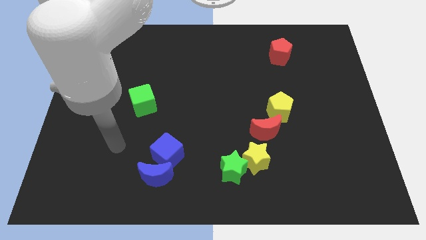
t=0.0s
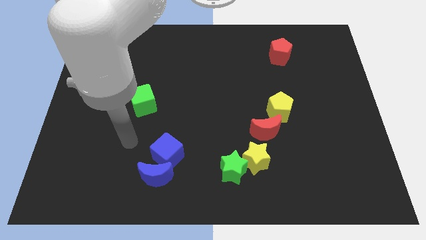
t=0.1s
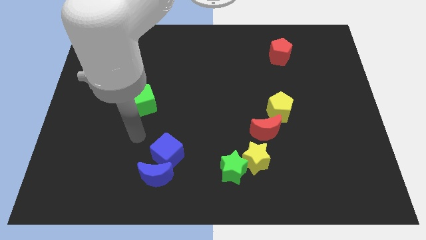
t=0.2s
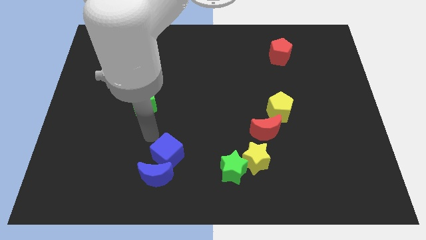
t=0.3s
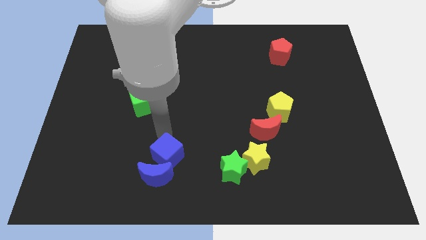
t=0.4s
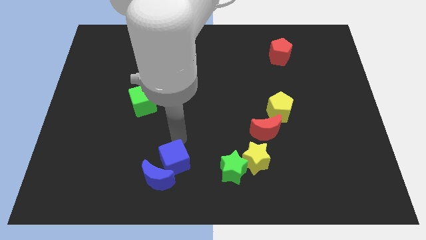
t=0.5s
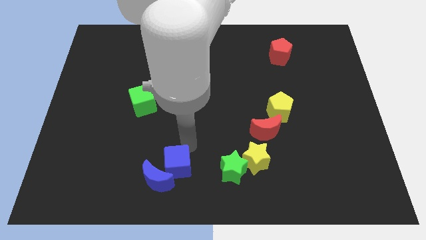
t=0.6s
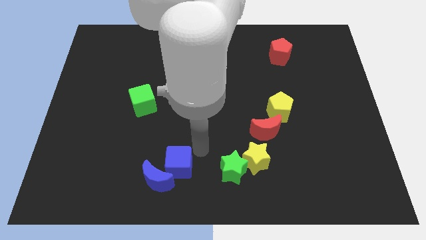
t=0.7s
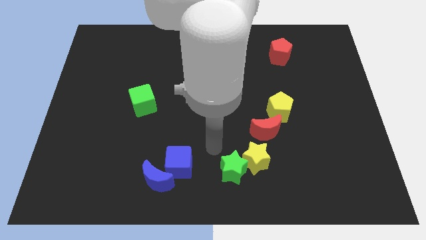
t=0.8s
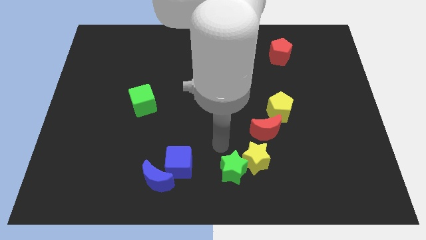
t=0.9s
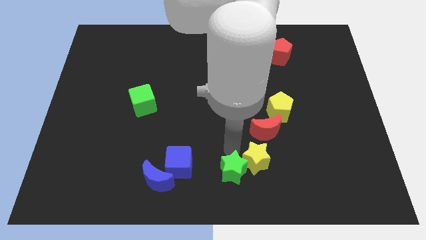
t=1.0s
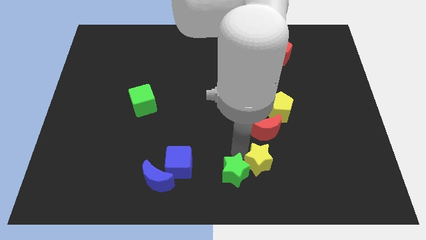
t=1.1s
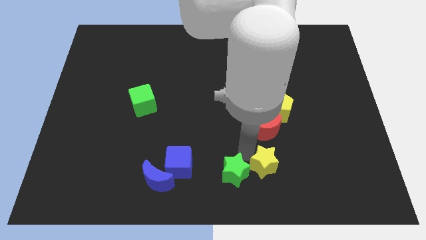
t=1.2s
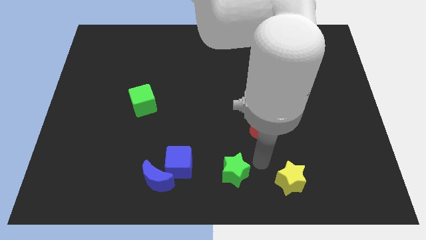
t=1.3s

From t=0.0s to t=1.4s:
separate the green star from the yellow star

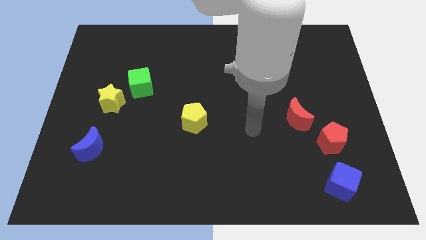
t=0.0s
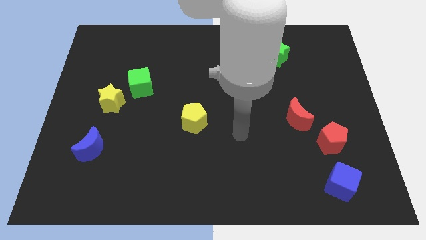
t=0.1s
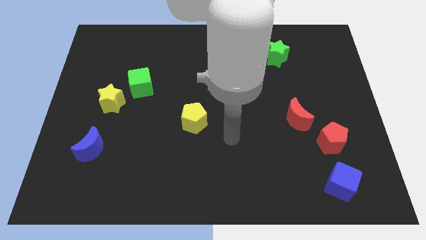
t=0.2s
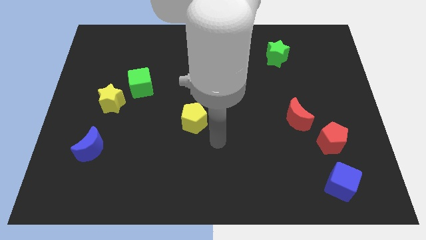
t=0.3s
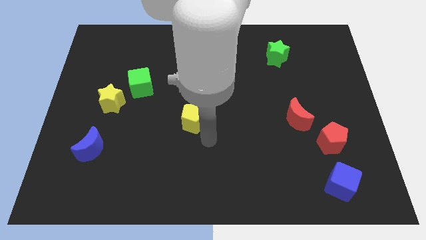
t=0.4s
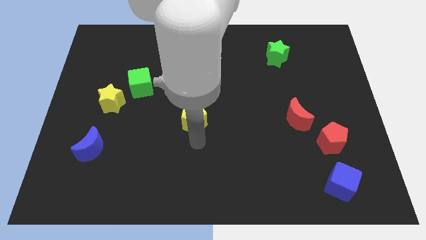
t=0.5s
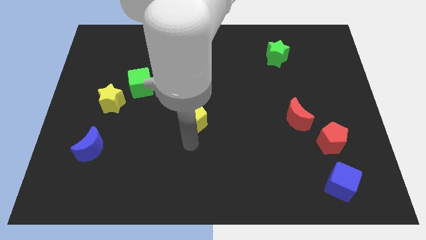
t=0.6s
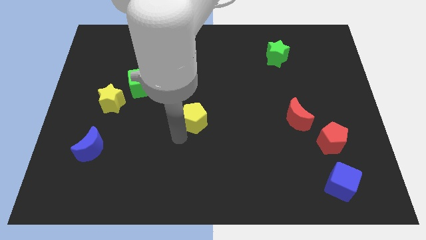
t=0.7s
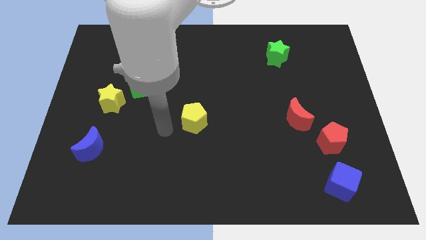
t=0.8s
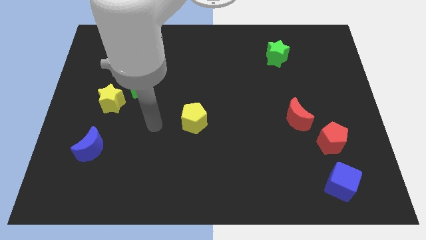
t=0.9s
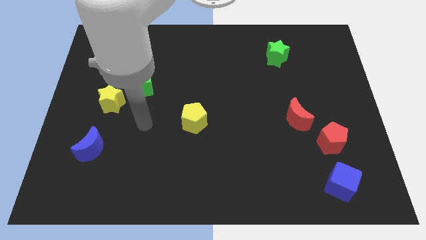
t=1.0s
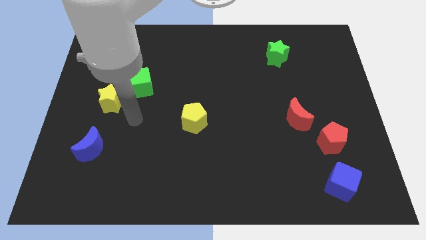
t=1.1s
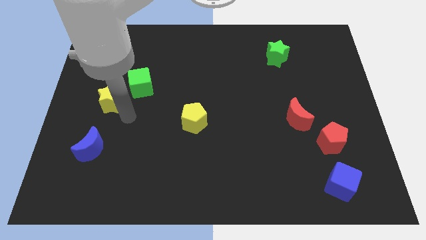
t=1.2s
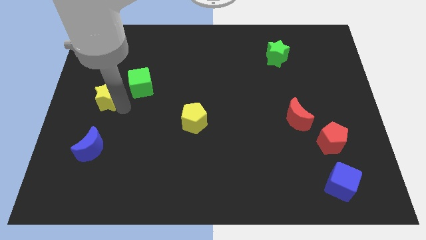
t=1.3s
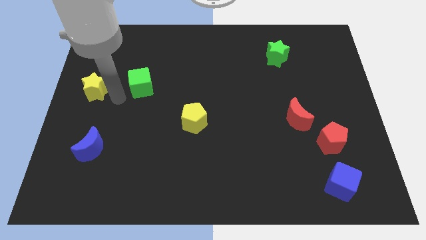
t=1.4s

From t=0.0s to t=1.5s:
pull the green cube apart from the yellow star

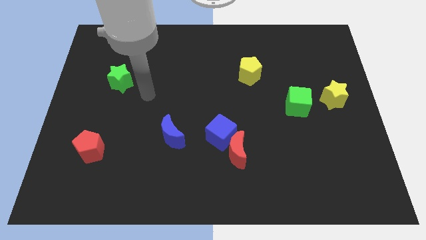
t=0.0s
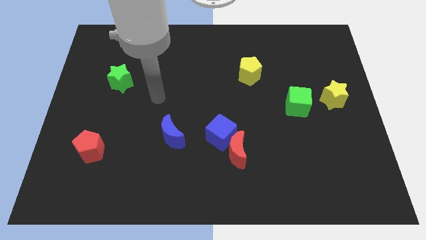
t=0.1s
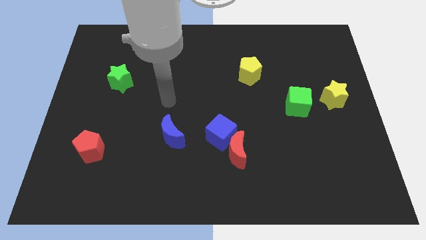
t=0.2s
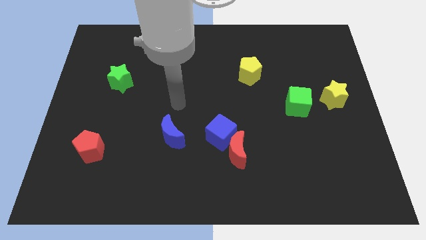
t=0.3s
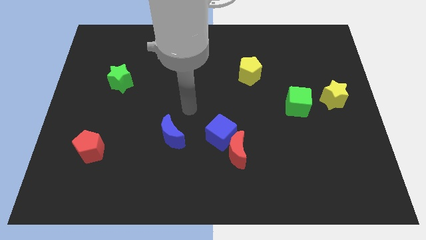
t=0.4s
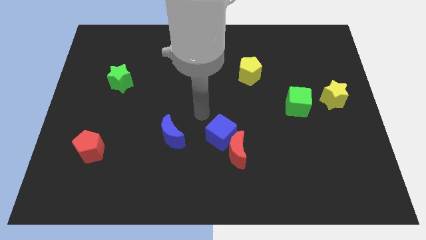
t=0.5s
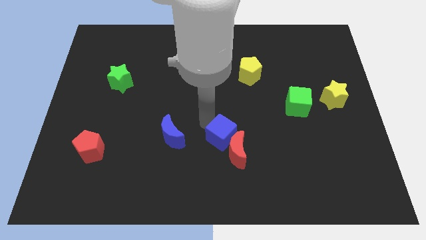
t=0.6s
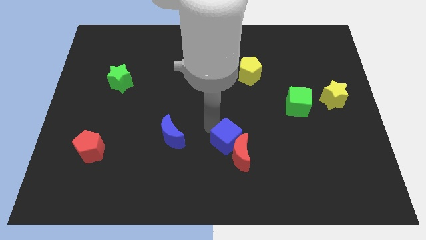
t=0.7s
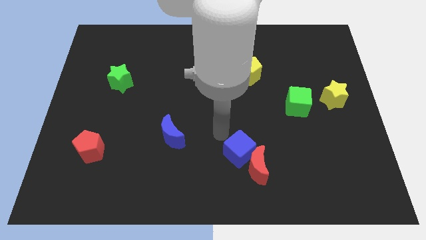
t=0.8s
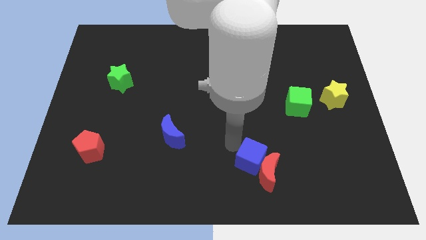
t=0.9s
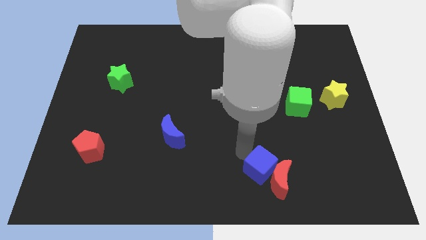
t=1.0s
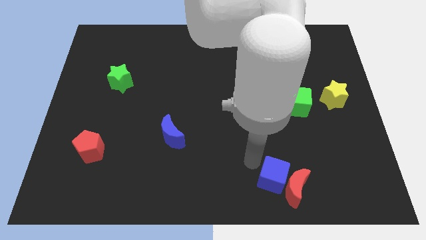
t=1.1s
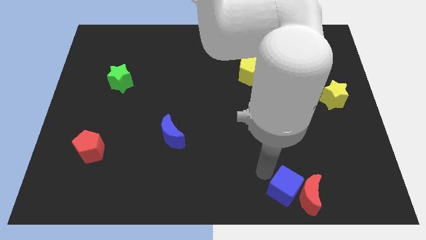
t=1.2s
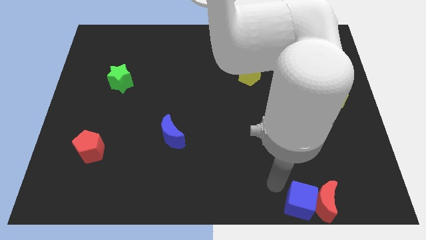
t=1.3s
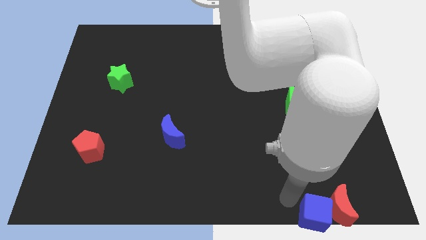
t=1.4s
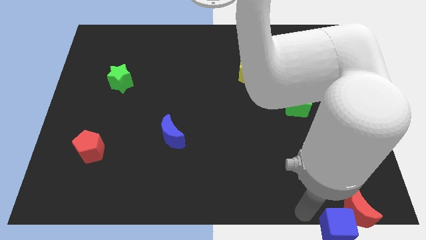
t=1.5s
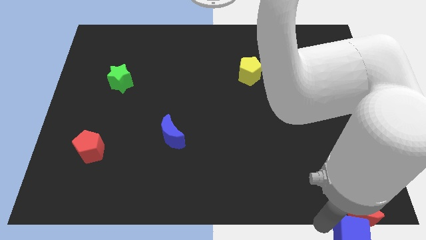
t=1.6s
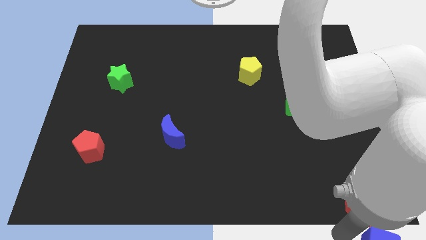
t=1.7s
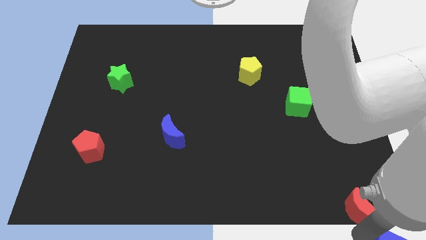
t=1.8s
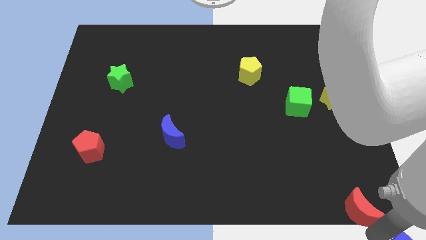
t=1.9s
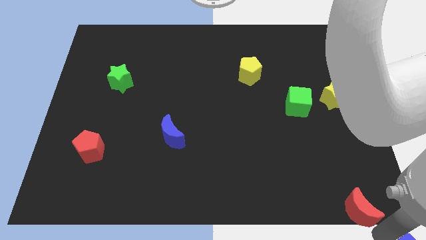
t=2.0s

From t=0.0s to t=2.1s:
move the red moon away from the blue cube

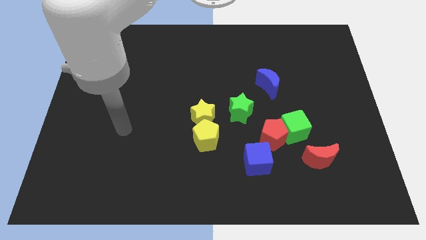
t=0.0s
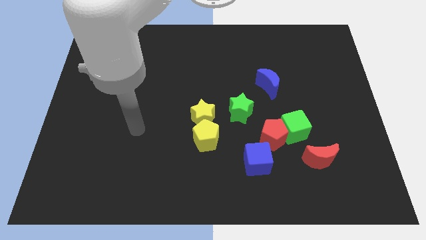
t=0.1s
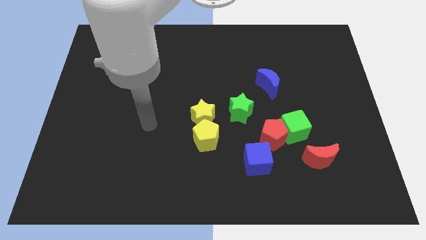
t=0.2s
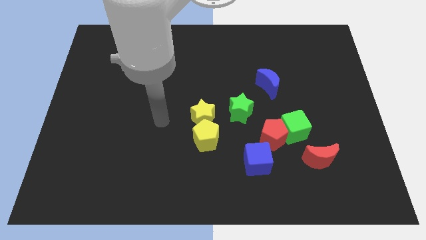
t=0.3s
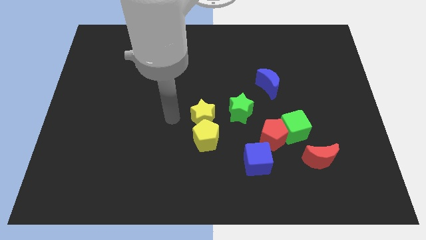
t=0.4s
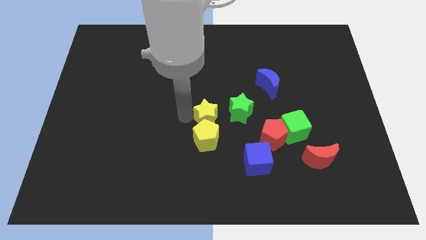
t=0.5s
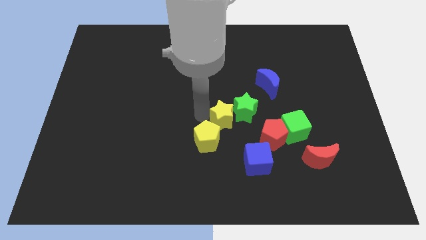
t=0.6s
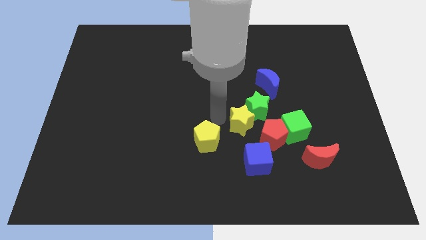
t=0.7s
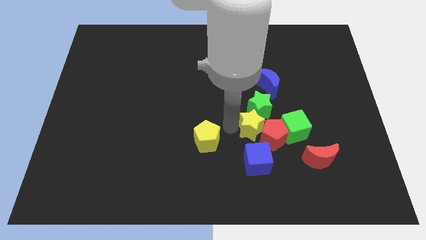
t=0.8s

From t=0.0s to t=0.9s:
pull the yellow pentagon apart from the yellow star

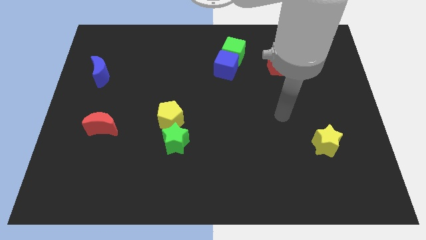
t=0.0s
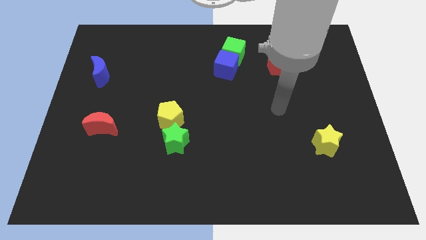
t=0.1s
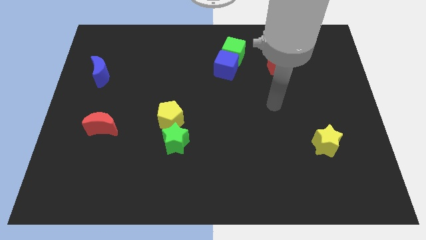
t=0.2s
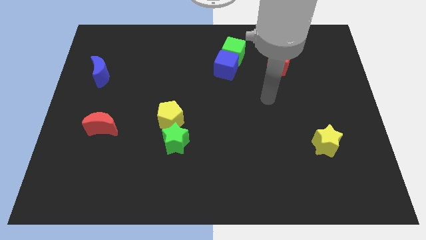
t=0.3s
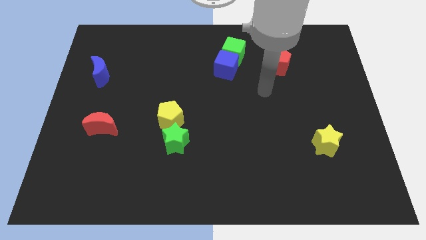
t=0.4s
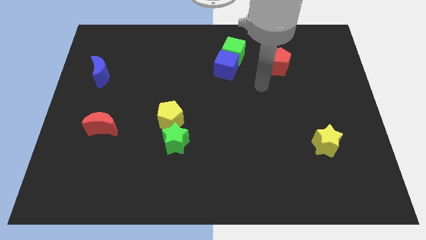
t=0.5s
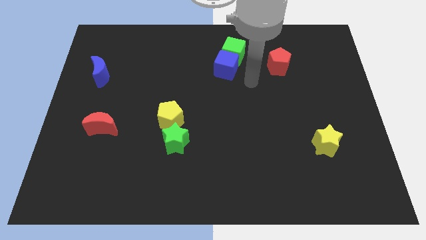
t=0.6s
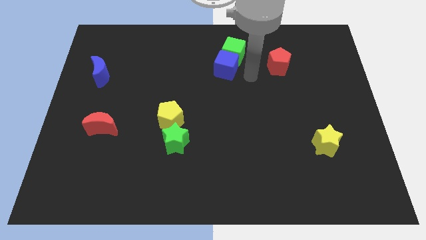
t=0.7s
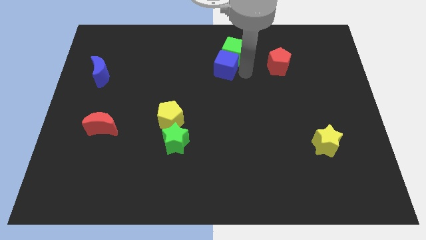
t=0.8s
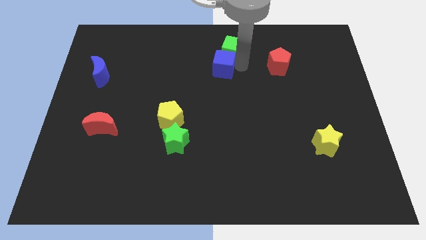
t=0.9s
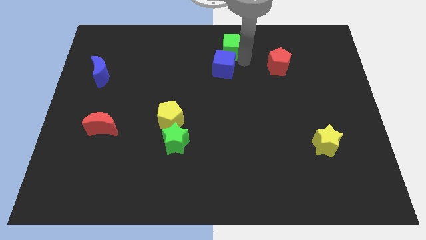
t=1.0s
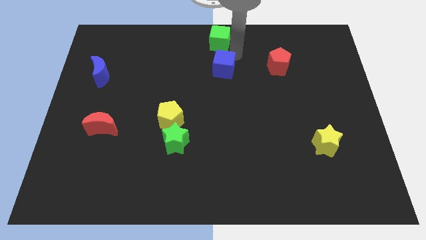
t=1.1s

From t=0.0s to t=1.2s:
move the blue cube away from the green cube

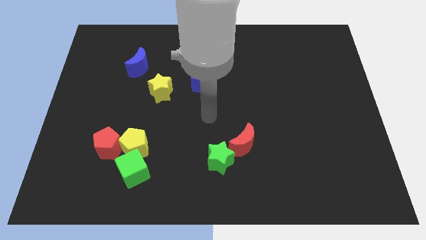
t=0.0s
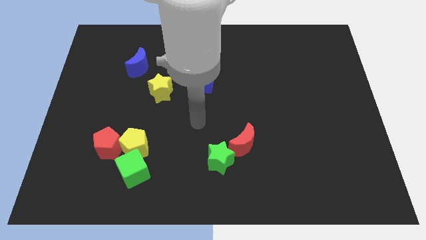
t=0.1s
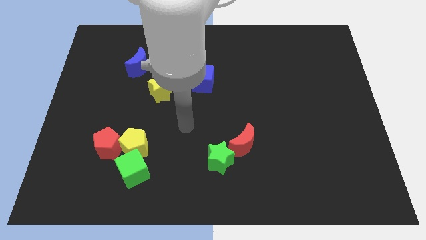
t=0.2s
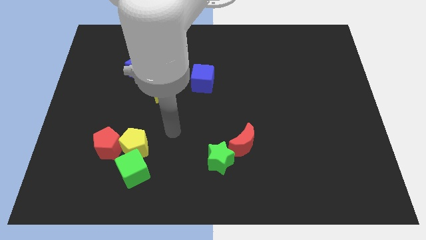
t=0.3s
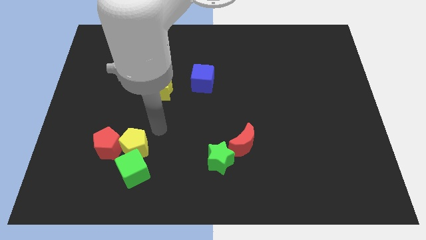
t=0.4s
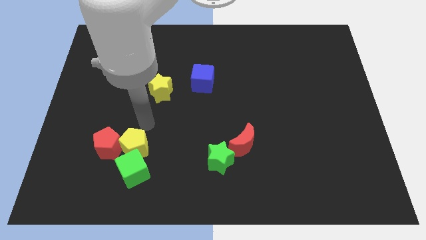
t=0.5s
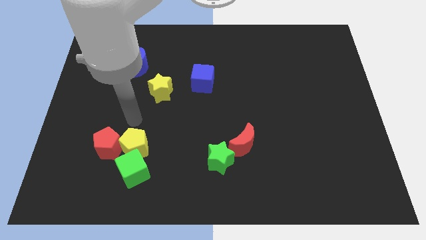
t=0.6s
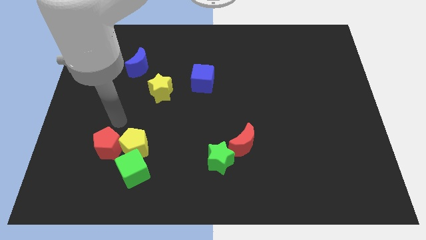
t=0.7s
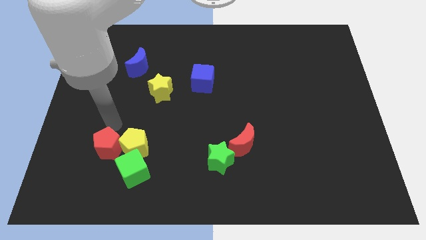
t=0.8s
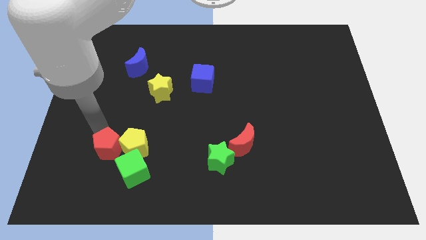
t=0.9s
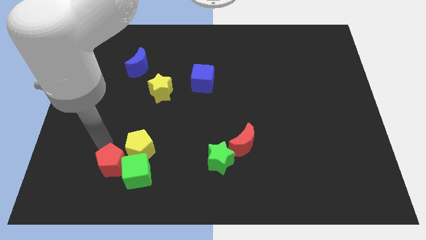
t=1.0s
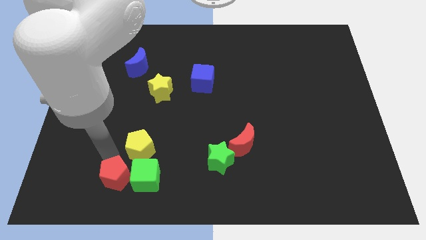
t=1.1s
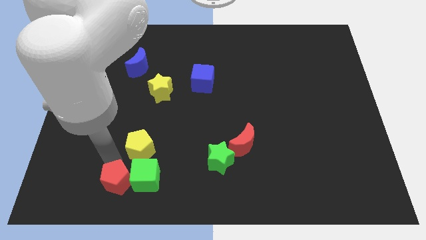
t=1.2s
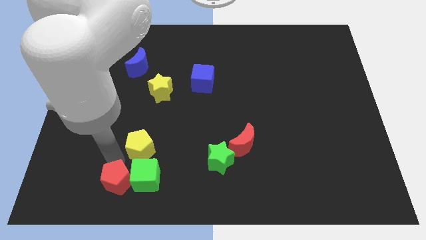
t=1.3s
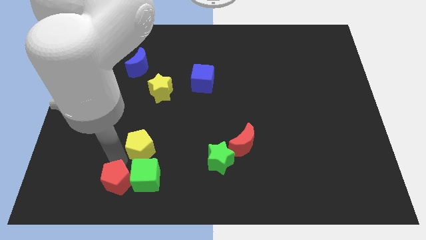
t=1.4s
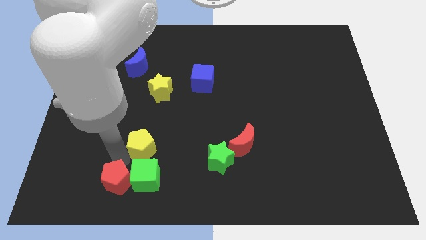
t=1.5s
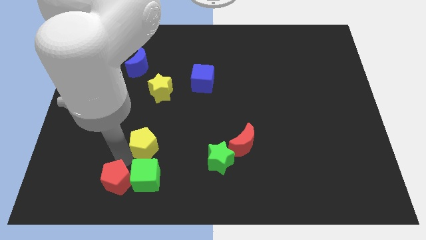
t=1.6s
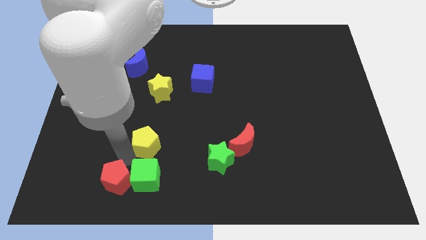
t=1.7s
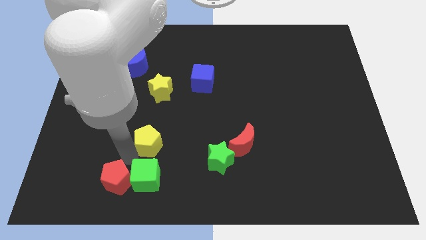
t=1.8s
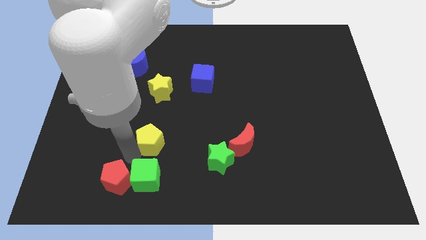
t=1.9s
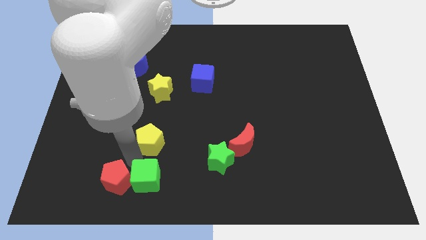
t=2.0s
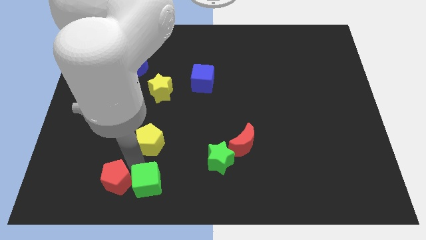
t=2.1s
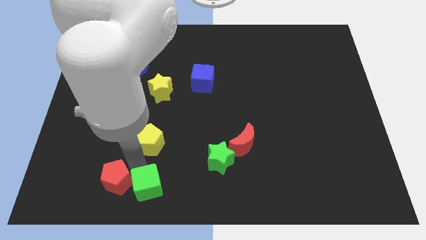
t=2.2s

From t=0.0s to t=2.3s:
move the yellow pentagon away from the red pentagon and green cube

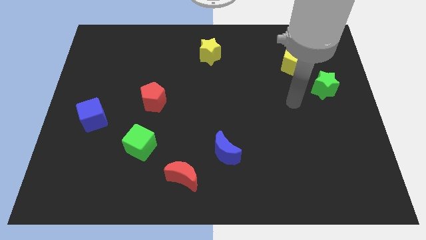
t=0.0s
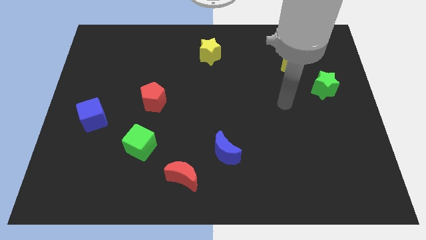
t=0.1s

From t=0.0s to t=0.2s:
separate the red moon from the blue moon
